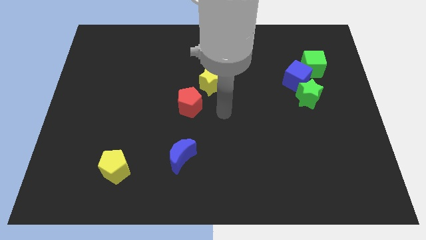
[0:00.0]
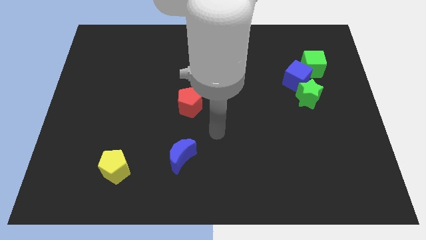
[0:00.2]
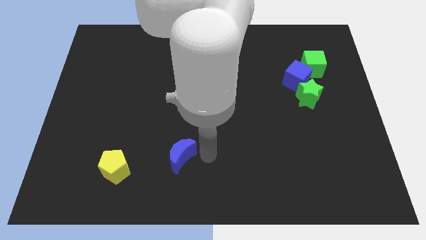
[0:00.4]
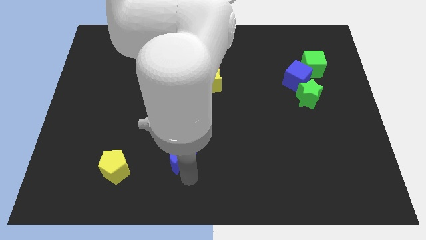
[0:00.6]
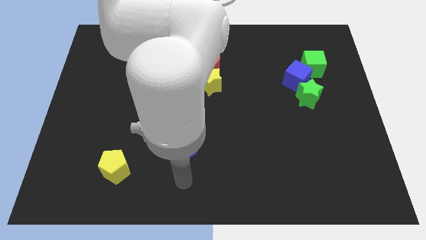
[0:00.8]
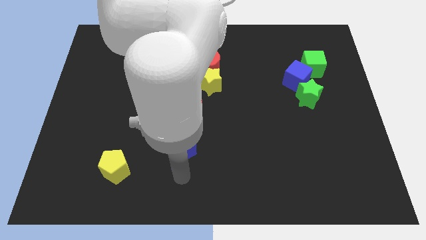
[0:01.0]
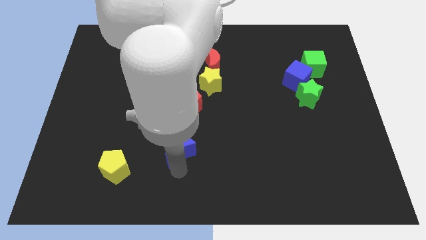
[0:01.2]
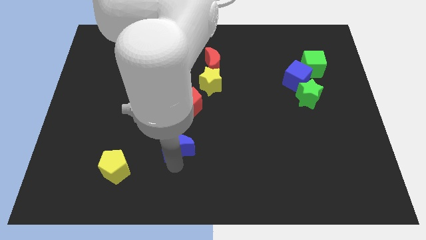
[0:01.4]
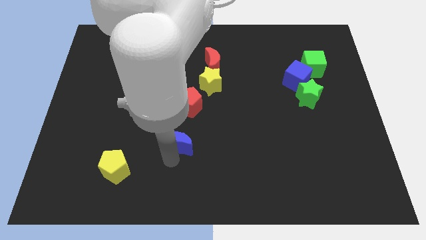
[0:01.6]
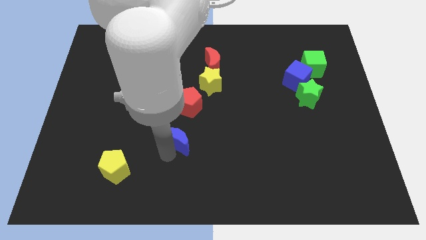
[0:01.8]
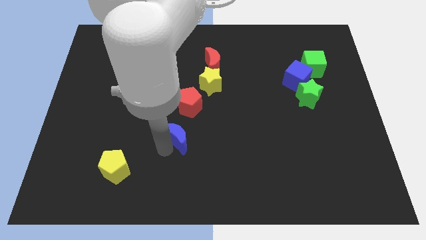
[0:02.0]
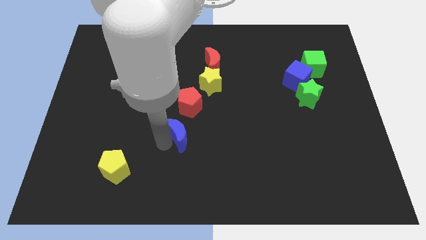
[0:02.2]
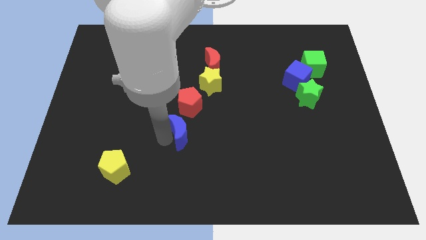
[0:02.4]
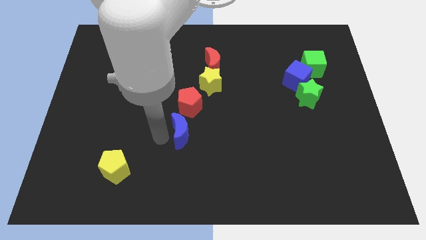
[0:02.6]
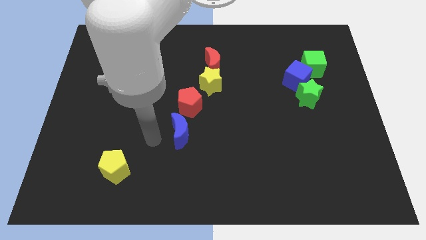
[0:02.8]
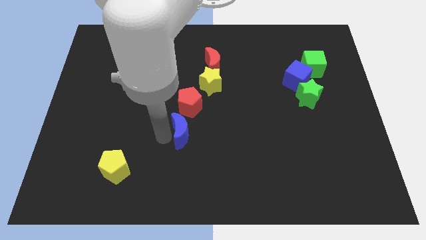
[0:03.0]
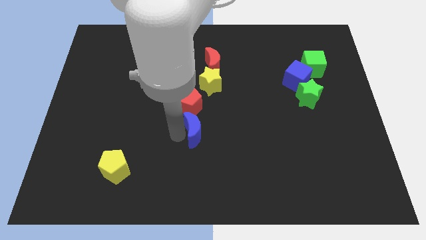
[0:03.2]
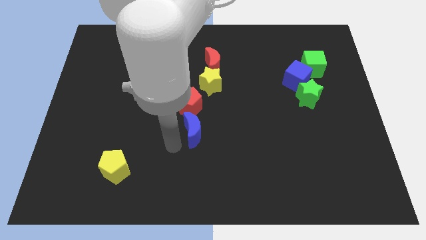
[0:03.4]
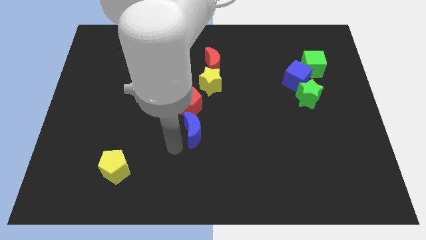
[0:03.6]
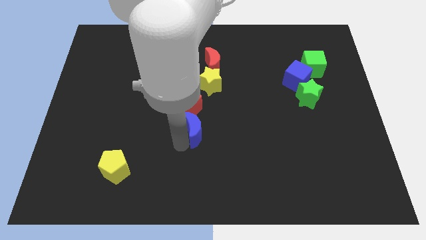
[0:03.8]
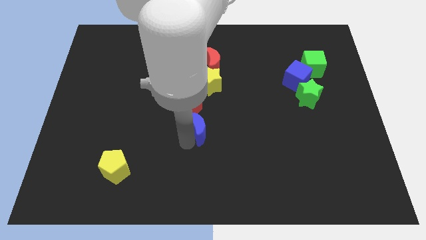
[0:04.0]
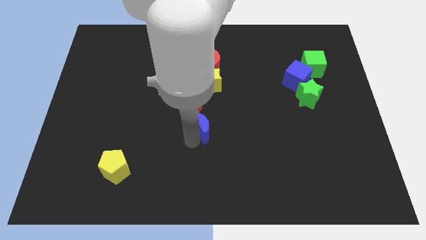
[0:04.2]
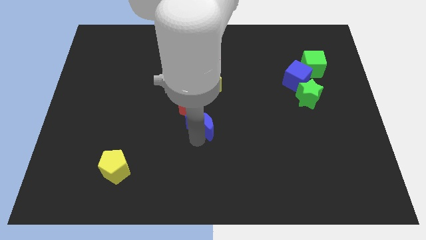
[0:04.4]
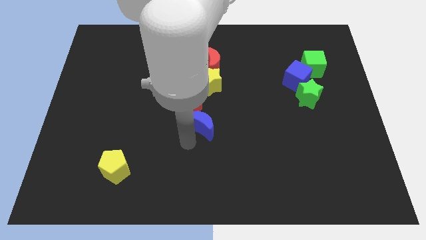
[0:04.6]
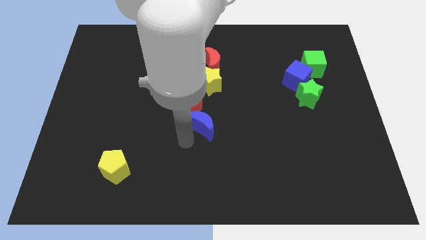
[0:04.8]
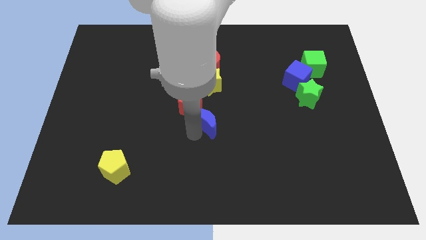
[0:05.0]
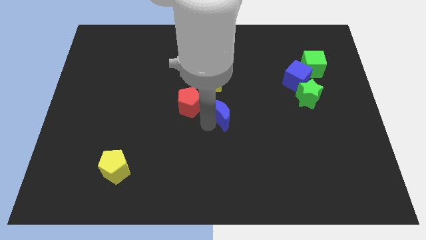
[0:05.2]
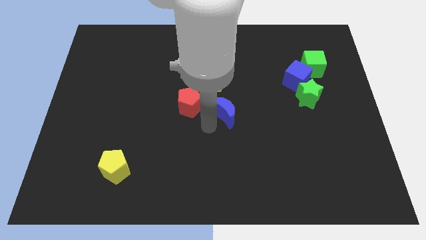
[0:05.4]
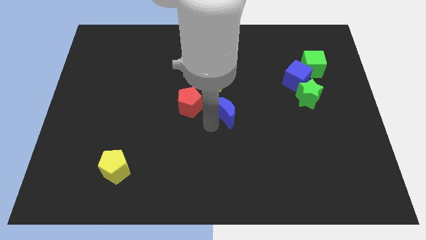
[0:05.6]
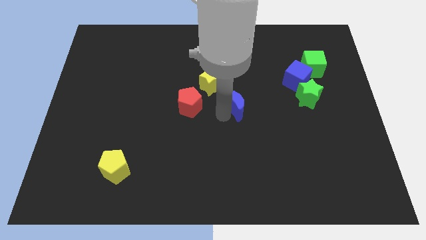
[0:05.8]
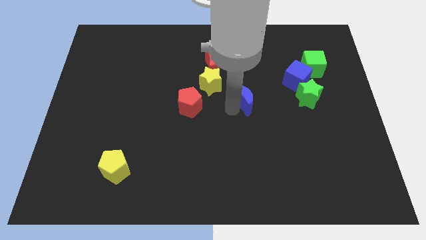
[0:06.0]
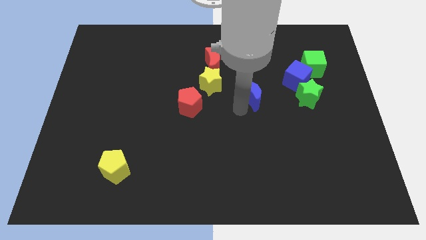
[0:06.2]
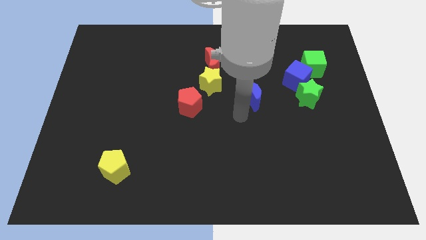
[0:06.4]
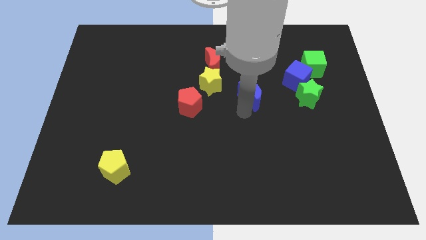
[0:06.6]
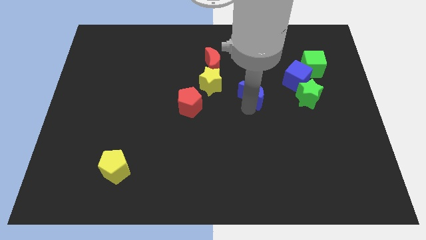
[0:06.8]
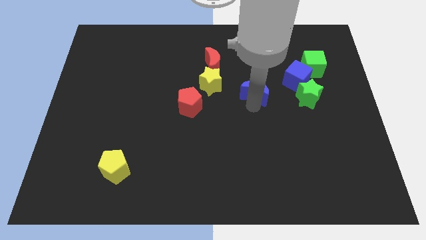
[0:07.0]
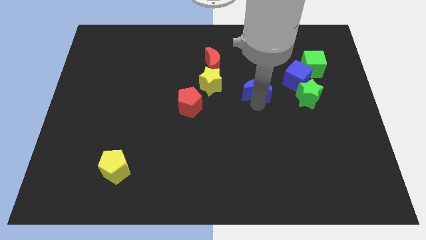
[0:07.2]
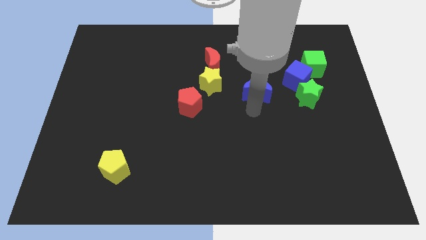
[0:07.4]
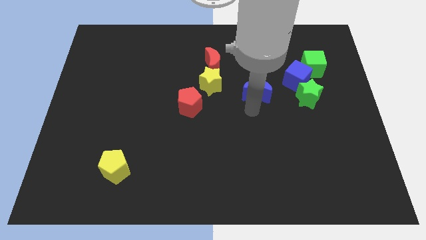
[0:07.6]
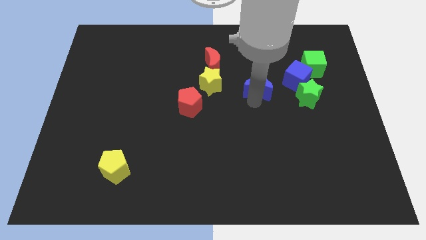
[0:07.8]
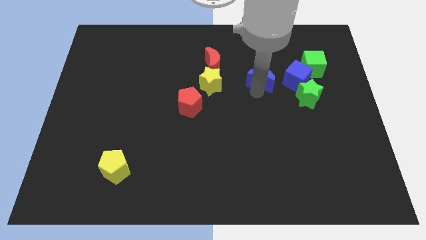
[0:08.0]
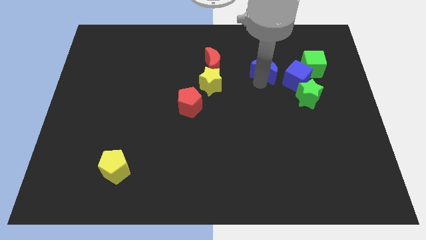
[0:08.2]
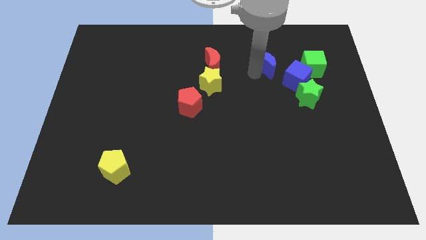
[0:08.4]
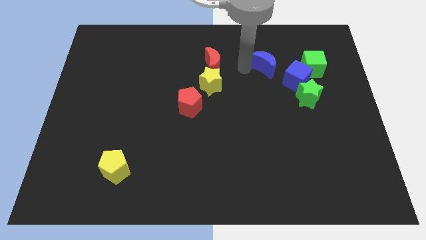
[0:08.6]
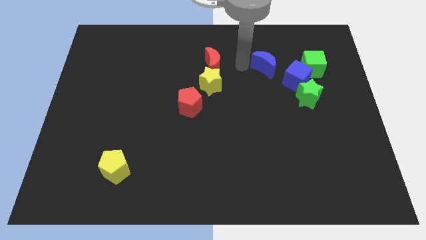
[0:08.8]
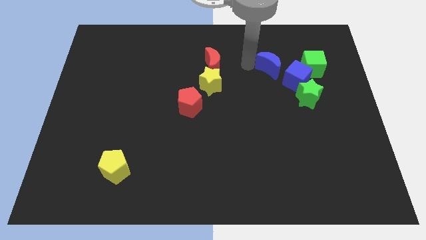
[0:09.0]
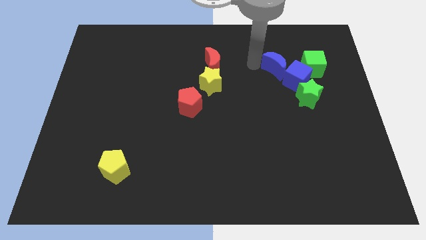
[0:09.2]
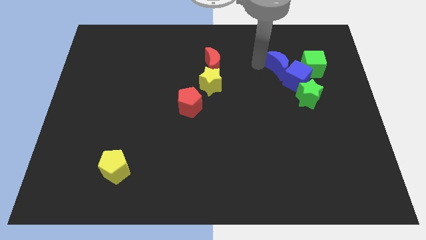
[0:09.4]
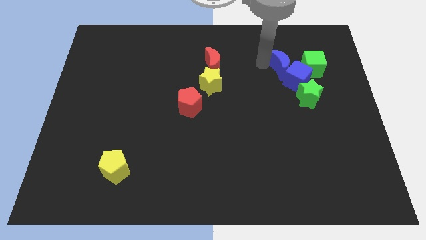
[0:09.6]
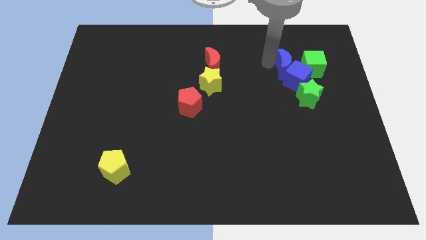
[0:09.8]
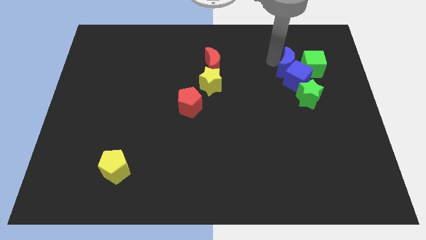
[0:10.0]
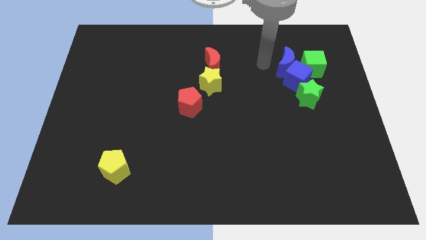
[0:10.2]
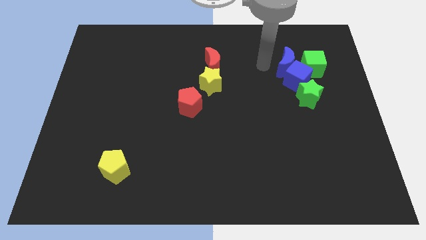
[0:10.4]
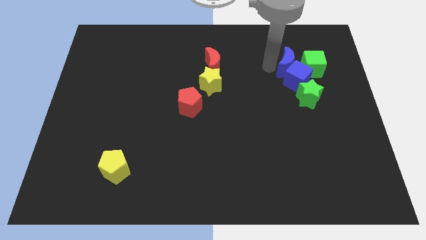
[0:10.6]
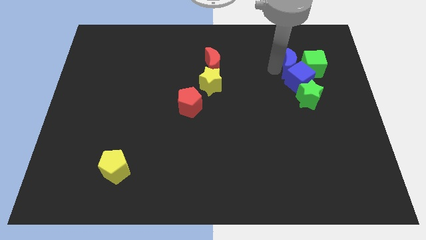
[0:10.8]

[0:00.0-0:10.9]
push the blue moon to the green cube

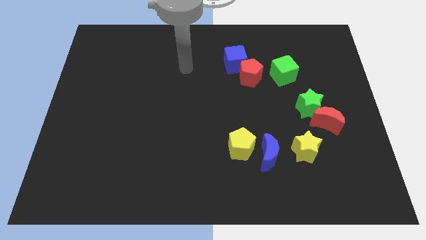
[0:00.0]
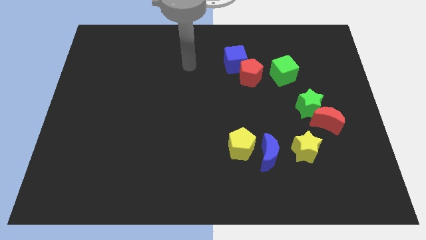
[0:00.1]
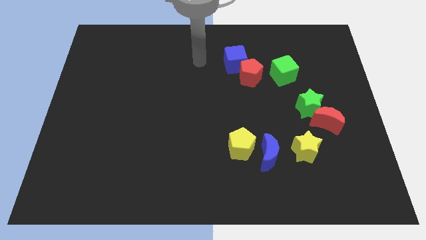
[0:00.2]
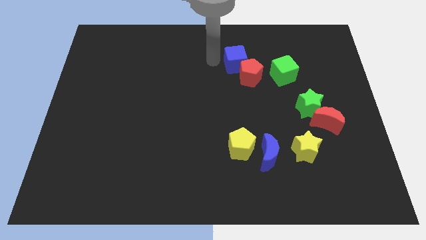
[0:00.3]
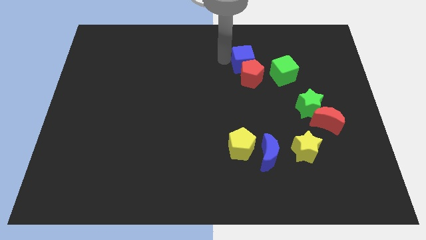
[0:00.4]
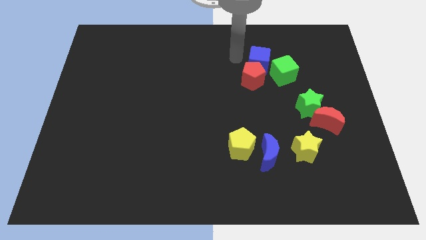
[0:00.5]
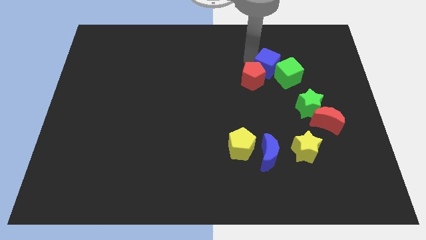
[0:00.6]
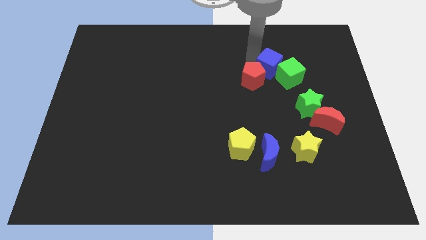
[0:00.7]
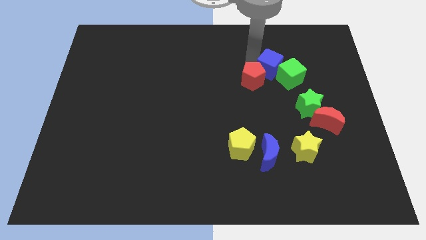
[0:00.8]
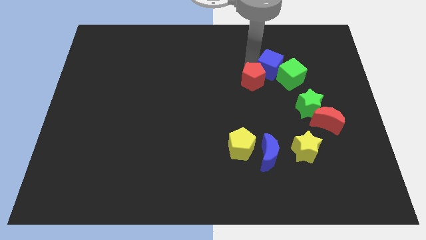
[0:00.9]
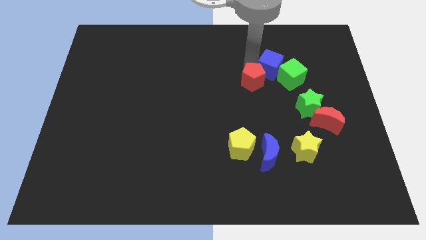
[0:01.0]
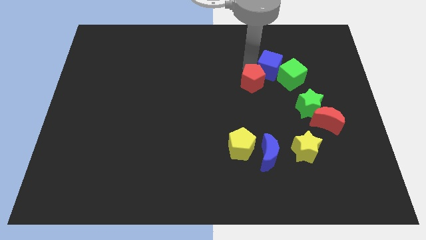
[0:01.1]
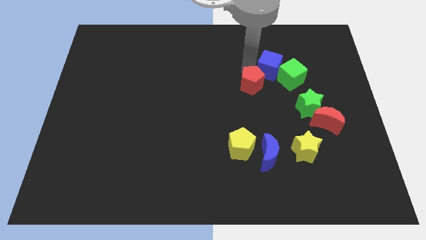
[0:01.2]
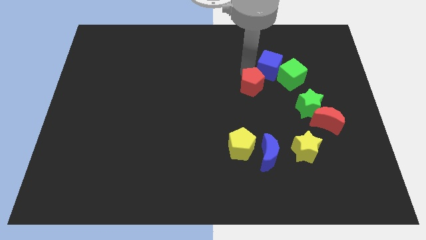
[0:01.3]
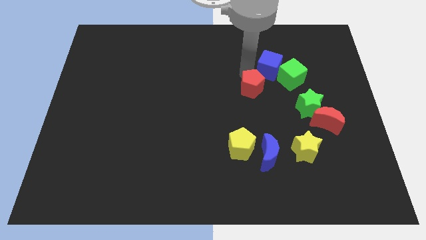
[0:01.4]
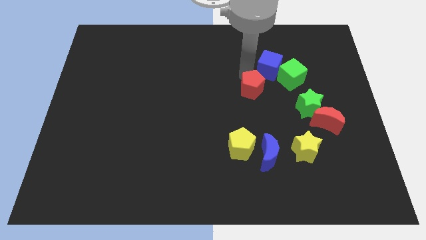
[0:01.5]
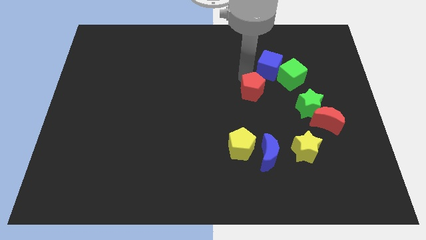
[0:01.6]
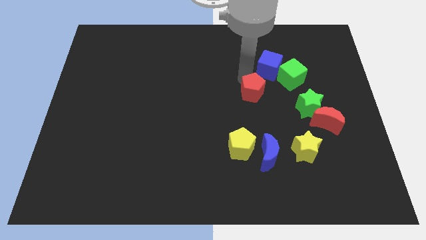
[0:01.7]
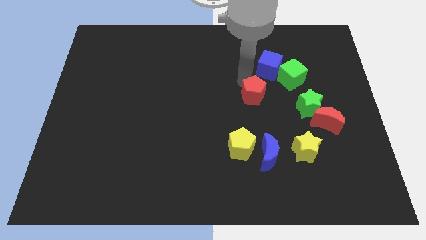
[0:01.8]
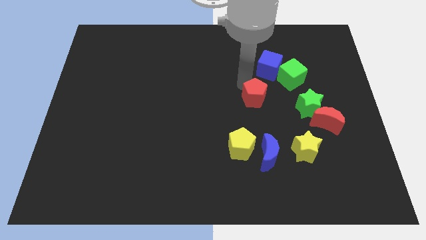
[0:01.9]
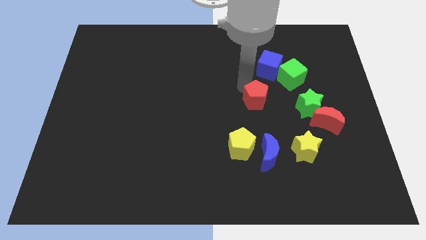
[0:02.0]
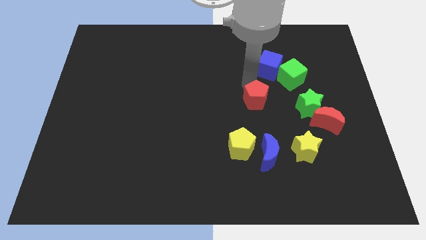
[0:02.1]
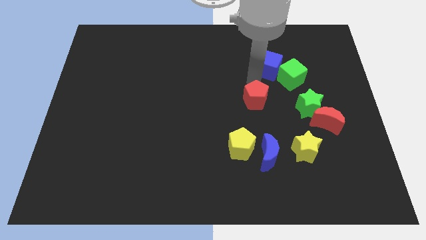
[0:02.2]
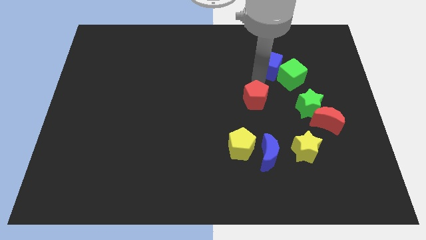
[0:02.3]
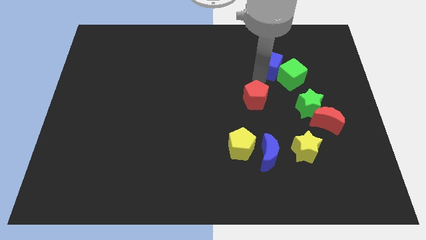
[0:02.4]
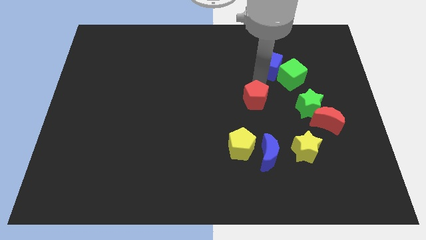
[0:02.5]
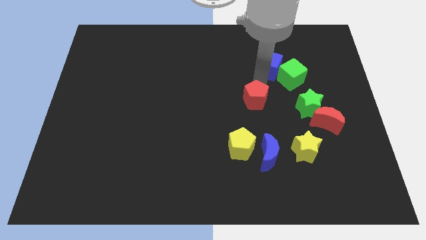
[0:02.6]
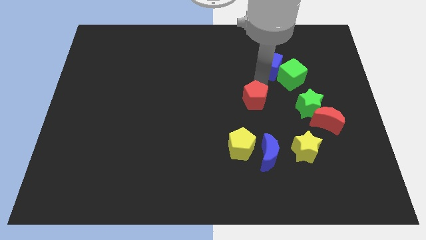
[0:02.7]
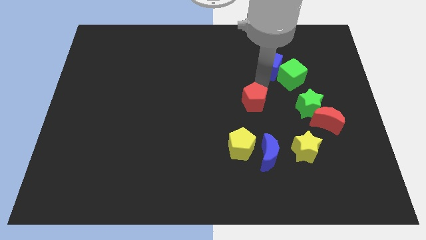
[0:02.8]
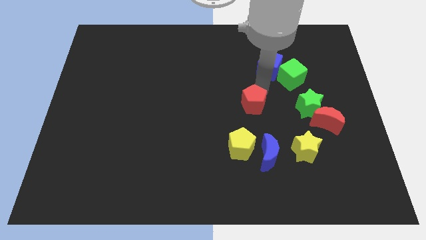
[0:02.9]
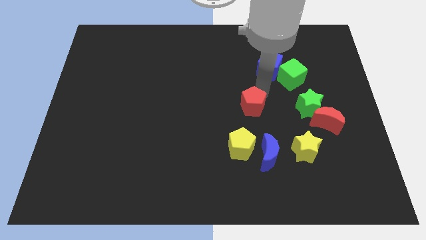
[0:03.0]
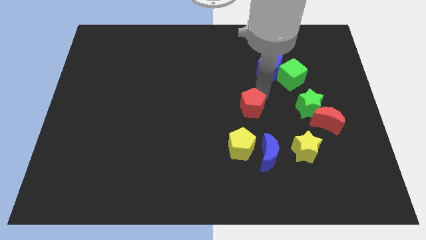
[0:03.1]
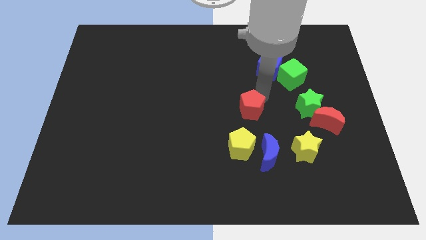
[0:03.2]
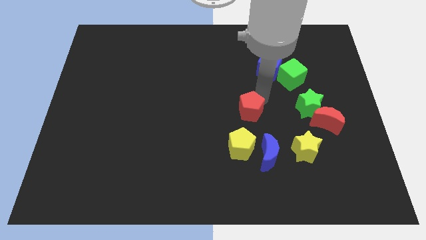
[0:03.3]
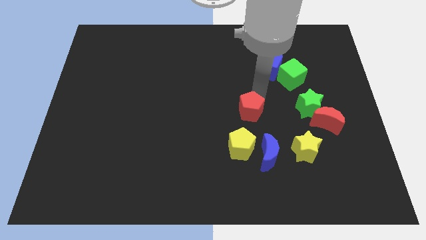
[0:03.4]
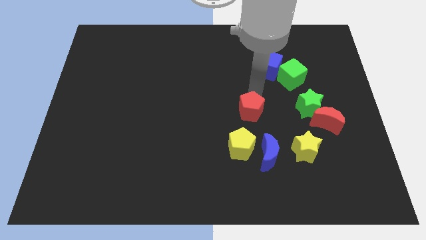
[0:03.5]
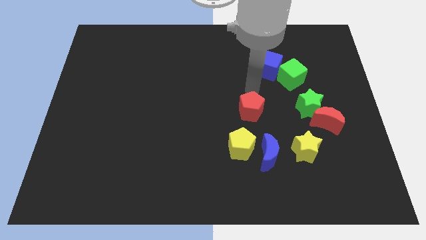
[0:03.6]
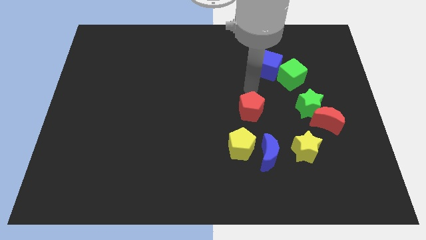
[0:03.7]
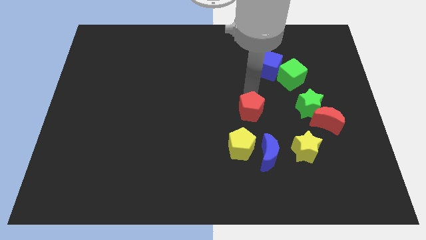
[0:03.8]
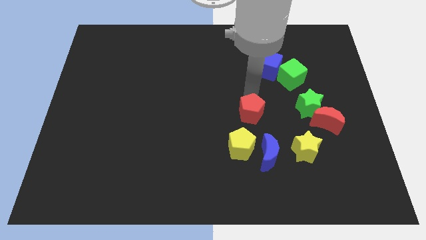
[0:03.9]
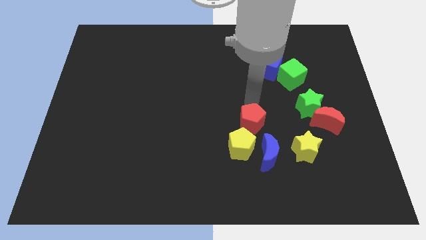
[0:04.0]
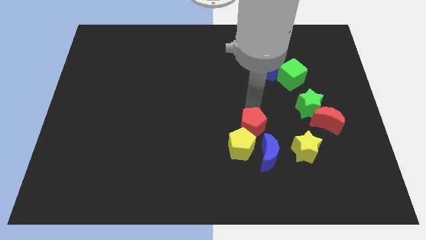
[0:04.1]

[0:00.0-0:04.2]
push the red pentagon towards the yellow pentagon
